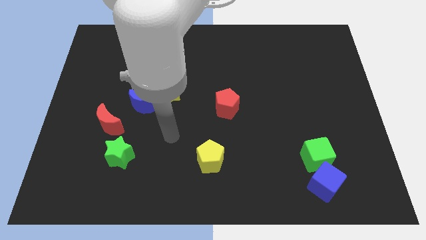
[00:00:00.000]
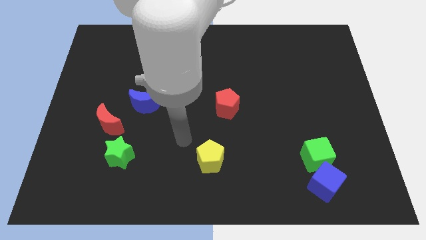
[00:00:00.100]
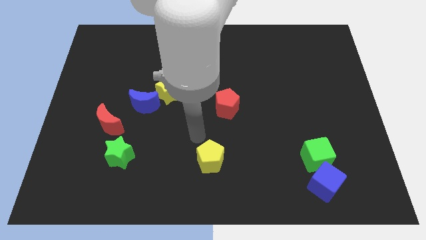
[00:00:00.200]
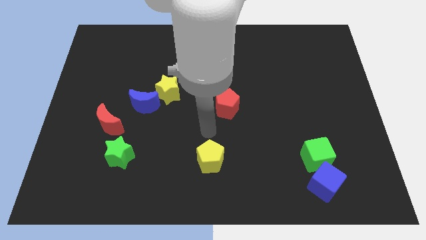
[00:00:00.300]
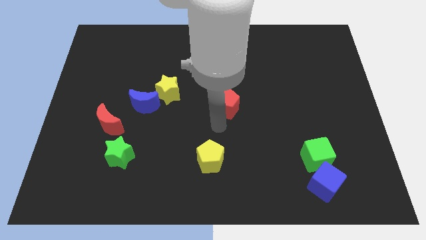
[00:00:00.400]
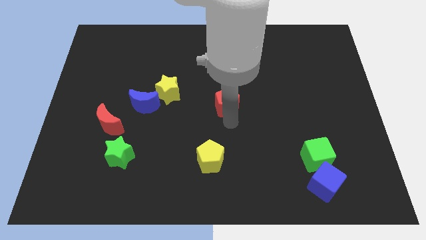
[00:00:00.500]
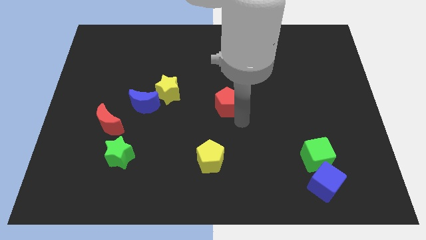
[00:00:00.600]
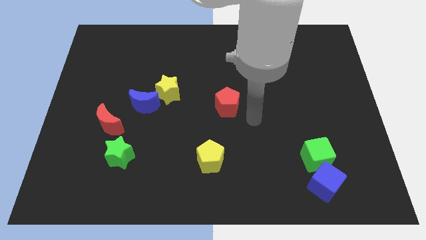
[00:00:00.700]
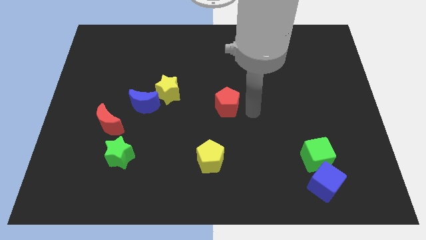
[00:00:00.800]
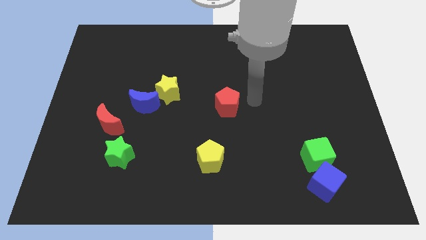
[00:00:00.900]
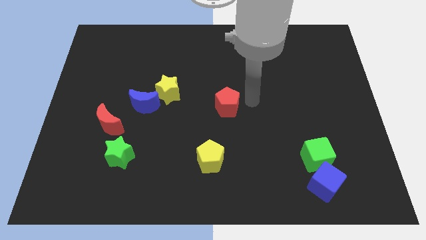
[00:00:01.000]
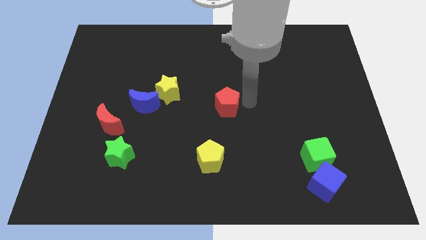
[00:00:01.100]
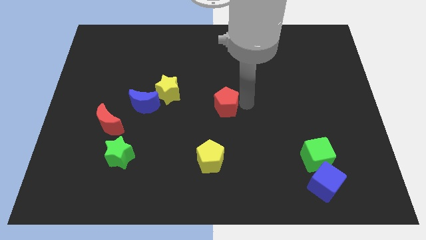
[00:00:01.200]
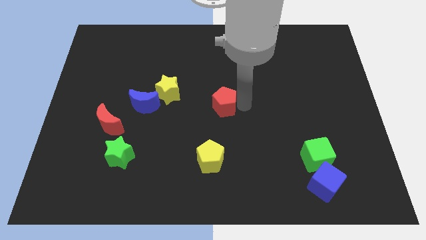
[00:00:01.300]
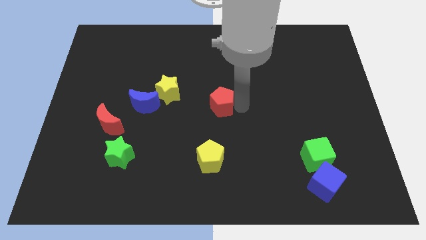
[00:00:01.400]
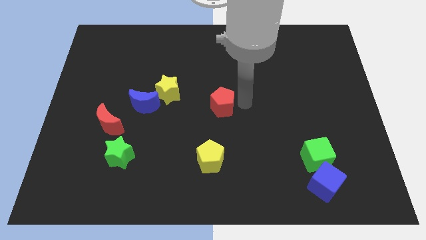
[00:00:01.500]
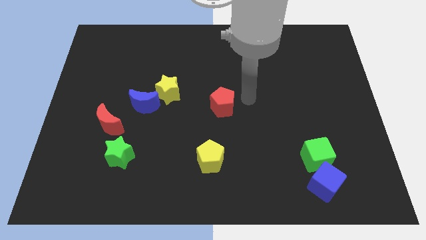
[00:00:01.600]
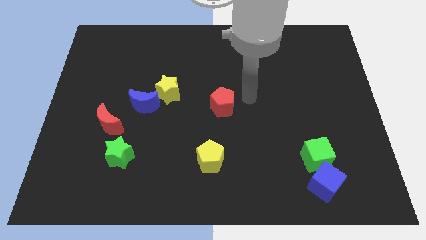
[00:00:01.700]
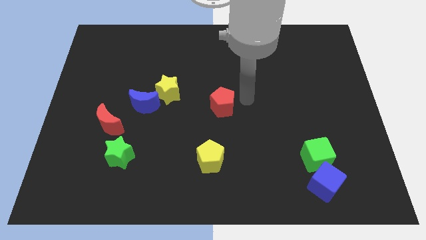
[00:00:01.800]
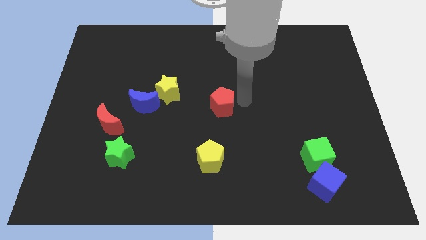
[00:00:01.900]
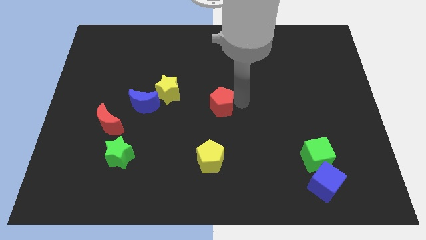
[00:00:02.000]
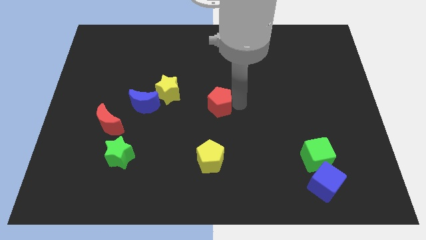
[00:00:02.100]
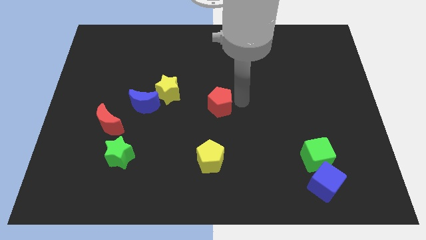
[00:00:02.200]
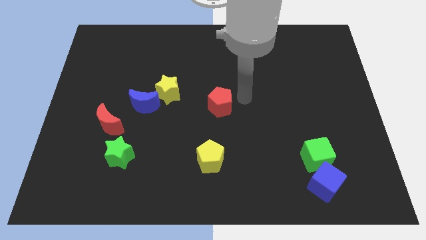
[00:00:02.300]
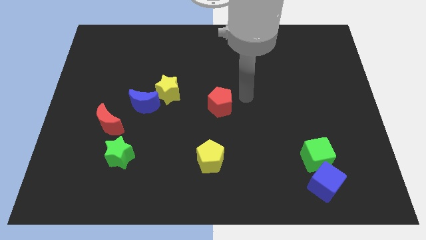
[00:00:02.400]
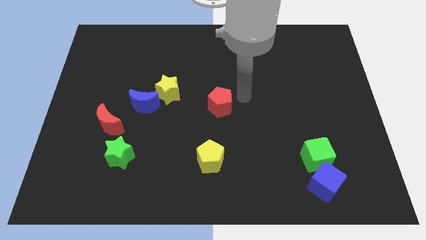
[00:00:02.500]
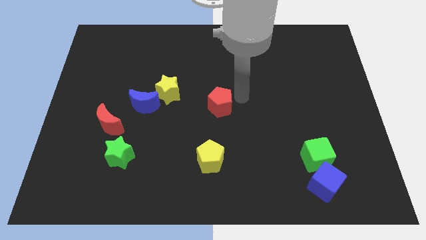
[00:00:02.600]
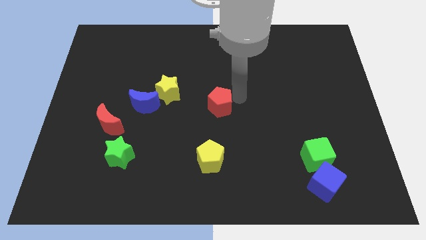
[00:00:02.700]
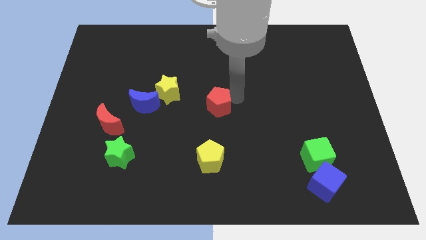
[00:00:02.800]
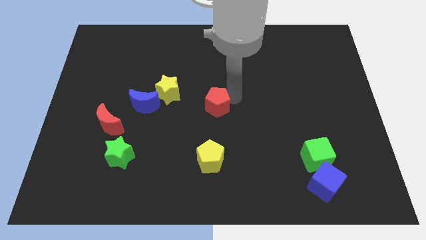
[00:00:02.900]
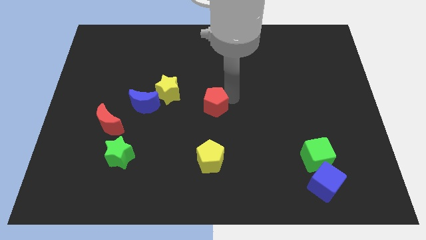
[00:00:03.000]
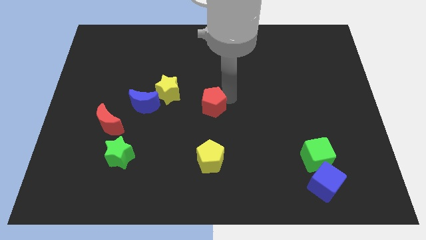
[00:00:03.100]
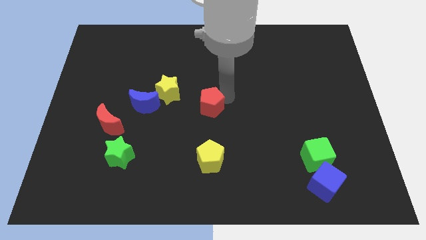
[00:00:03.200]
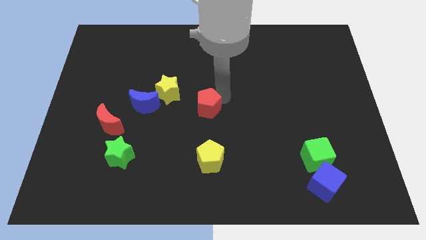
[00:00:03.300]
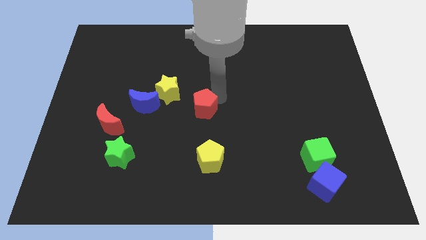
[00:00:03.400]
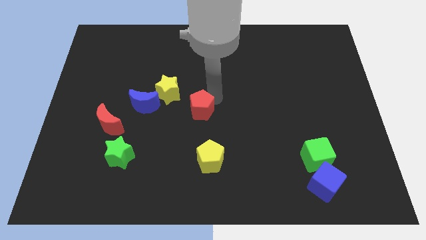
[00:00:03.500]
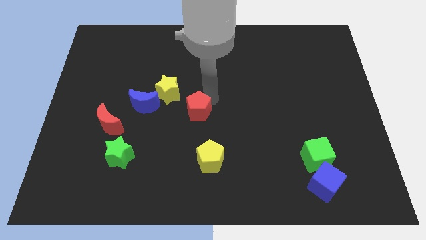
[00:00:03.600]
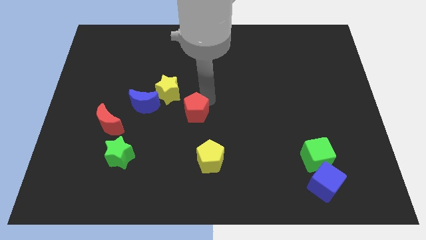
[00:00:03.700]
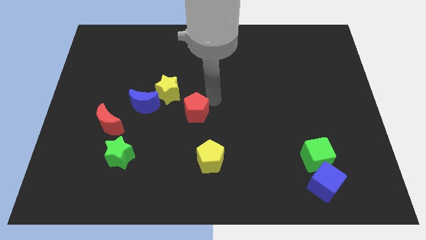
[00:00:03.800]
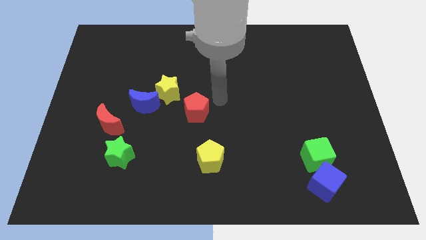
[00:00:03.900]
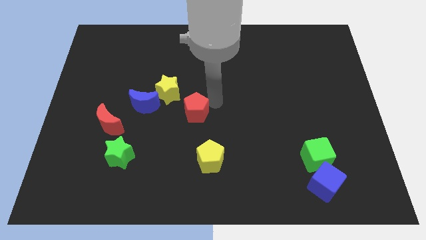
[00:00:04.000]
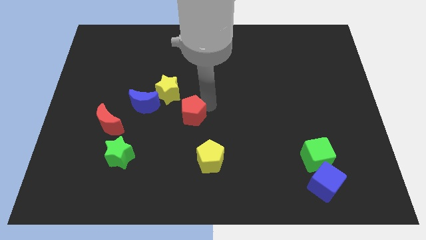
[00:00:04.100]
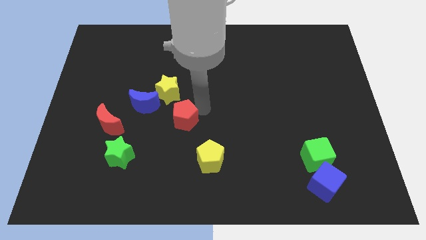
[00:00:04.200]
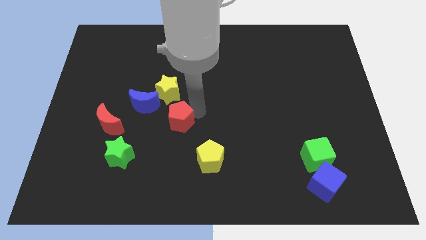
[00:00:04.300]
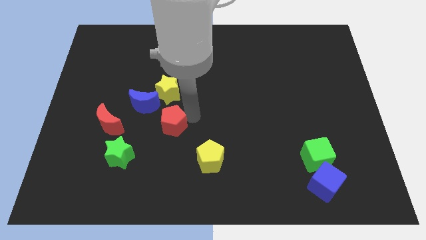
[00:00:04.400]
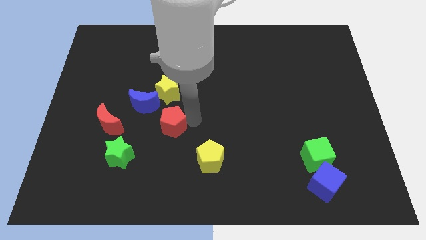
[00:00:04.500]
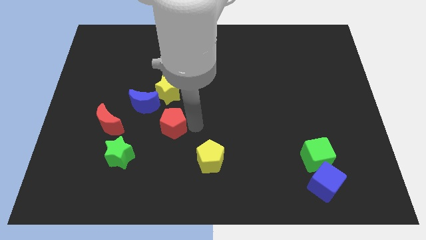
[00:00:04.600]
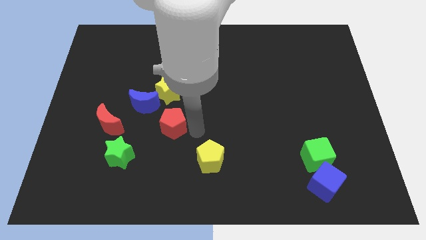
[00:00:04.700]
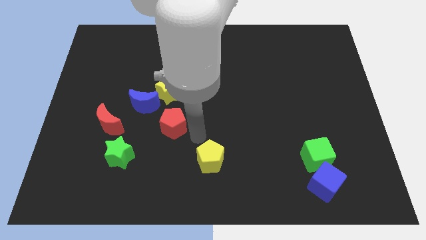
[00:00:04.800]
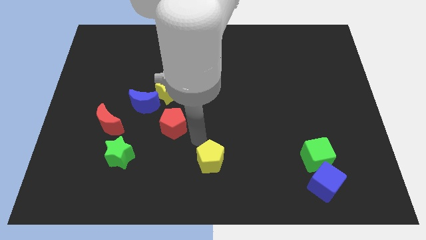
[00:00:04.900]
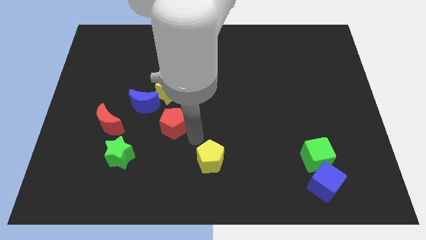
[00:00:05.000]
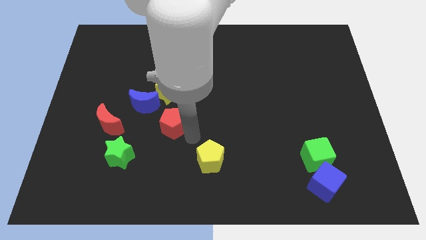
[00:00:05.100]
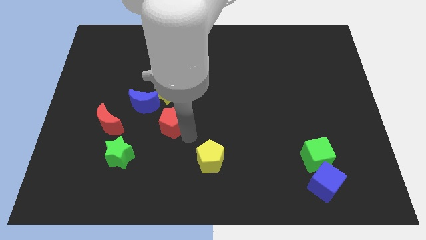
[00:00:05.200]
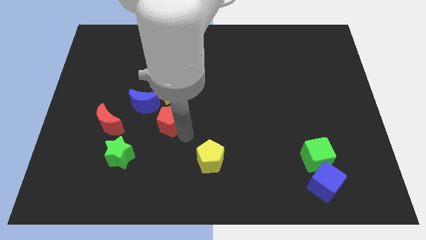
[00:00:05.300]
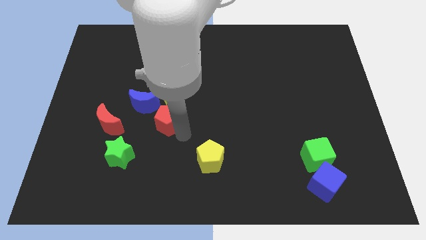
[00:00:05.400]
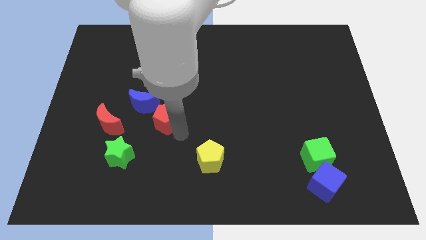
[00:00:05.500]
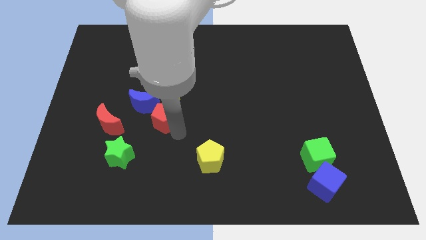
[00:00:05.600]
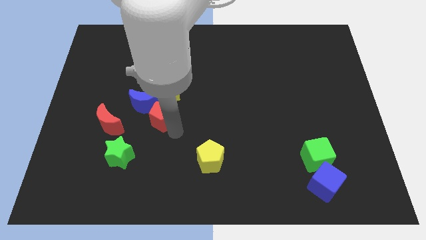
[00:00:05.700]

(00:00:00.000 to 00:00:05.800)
slide the red pentagon next to the blue moon
